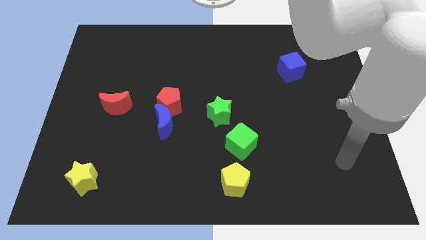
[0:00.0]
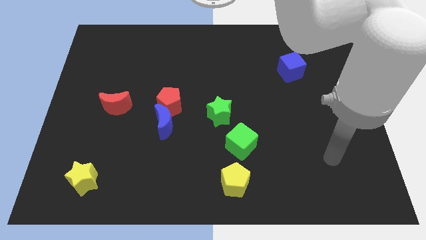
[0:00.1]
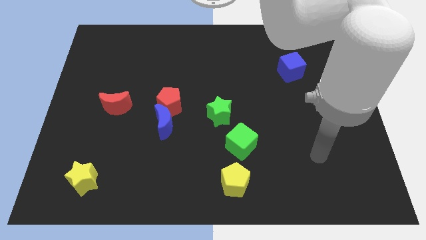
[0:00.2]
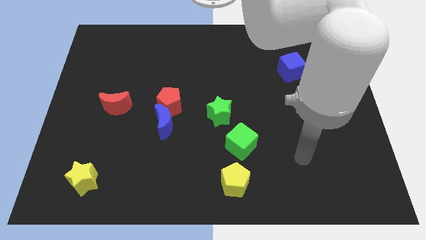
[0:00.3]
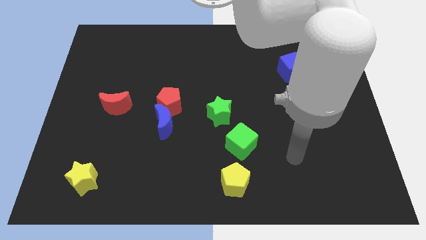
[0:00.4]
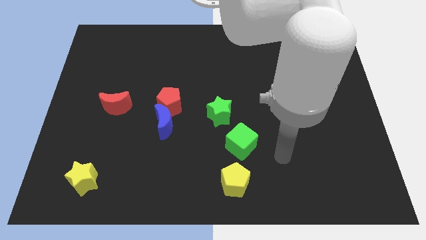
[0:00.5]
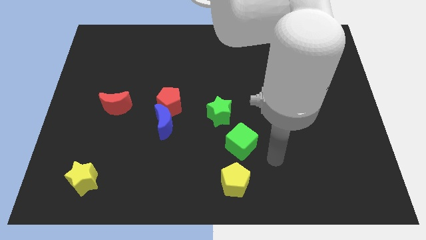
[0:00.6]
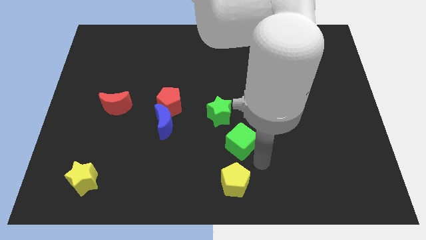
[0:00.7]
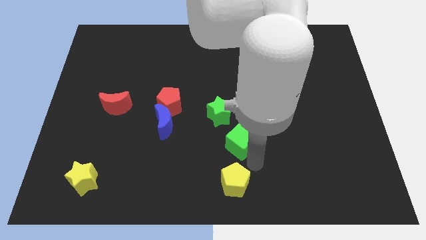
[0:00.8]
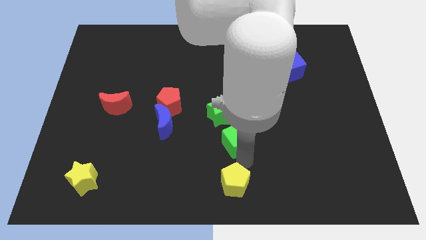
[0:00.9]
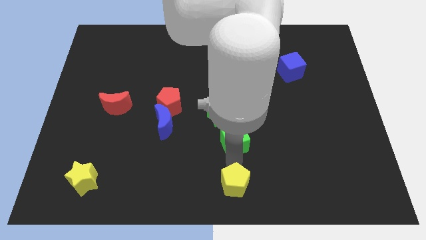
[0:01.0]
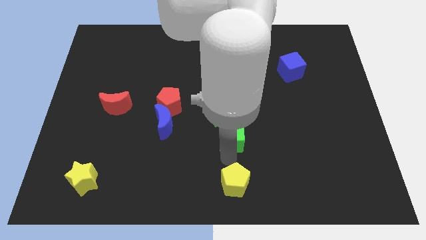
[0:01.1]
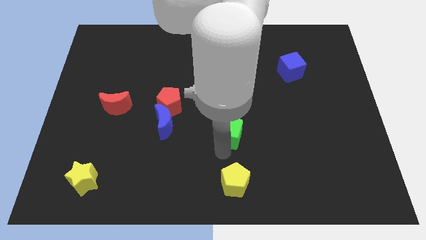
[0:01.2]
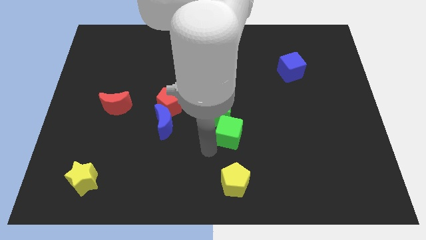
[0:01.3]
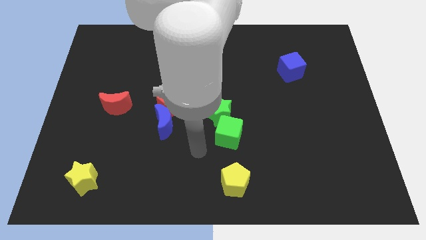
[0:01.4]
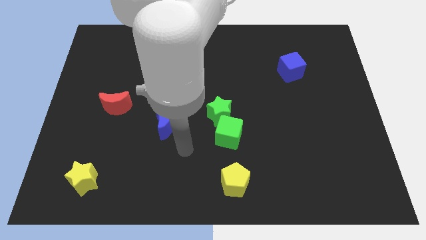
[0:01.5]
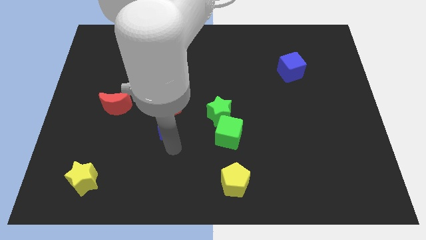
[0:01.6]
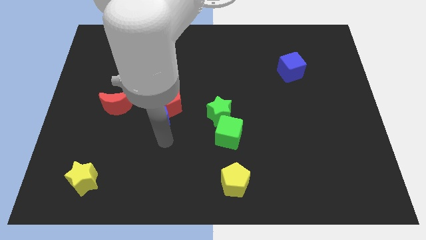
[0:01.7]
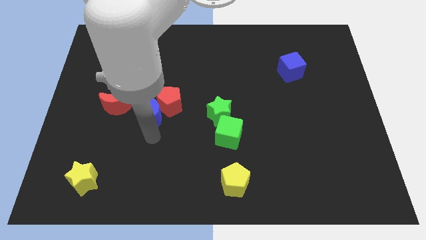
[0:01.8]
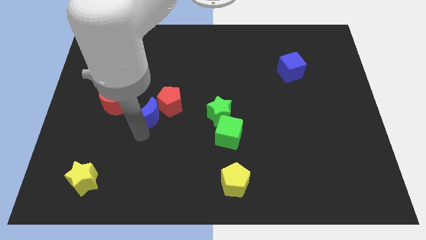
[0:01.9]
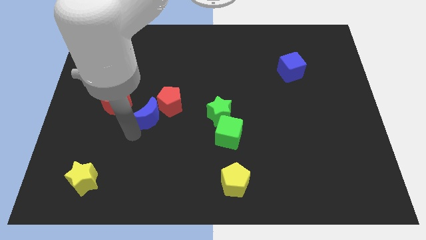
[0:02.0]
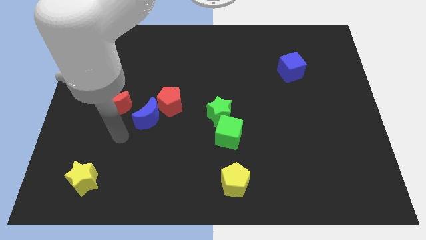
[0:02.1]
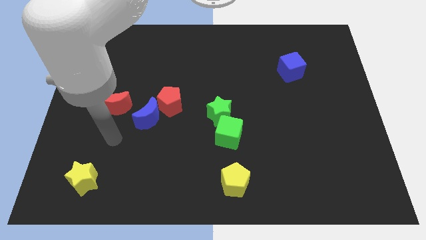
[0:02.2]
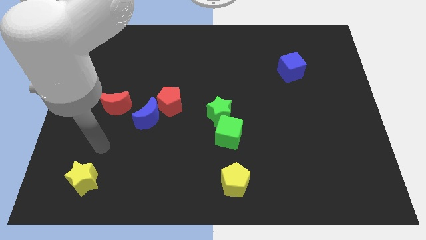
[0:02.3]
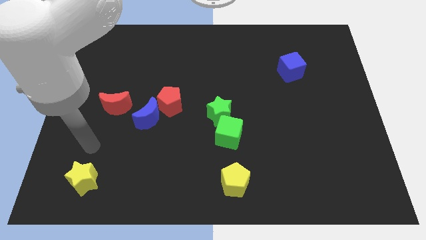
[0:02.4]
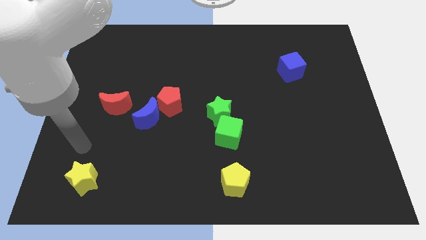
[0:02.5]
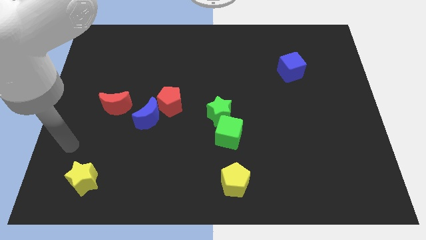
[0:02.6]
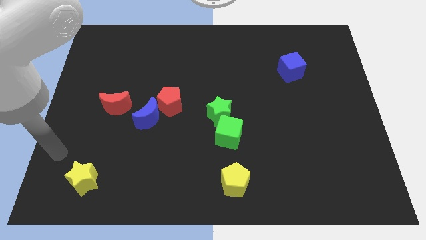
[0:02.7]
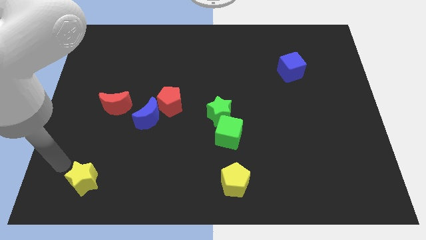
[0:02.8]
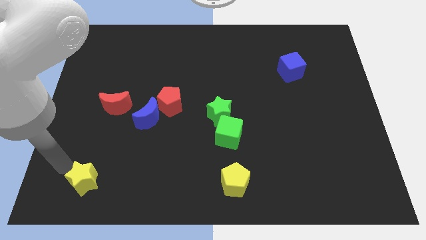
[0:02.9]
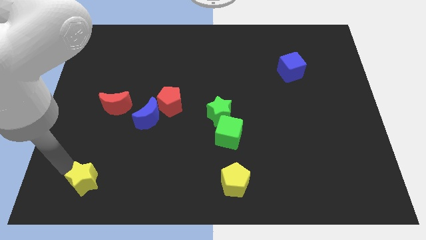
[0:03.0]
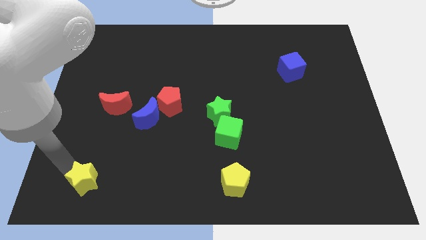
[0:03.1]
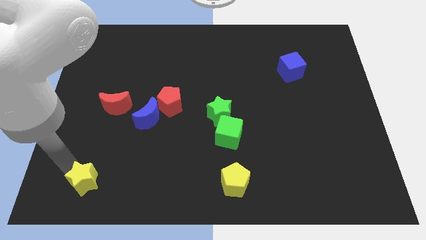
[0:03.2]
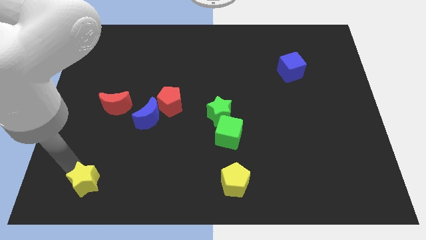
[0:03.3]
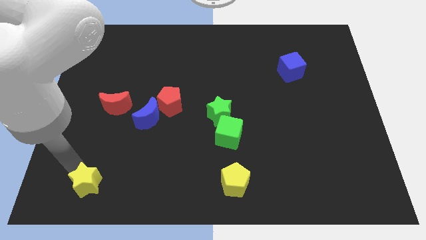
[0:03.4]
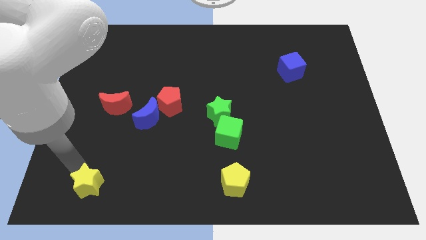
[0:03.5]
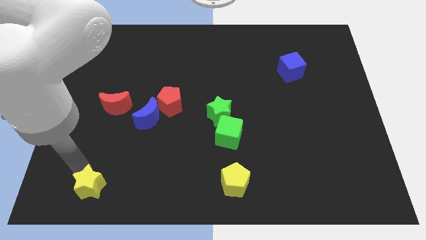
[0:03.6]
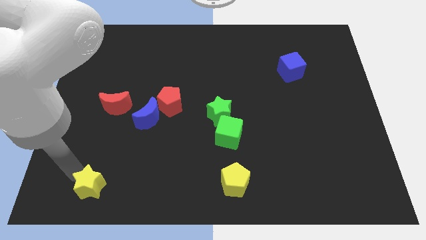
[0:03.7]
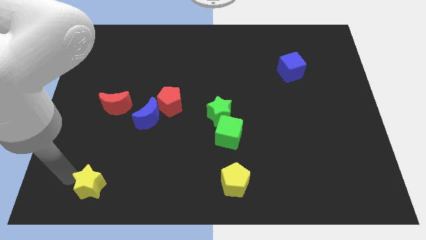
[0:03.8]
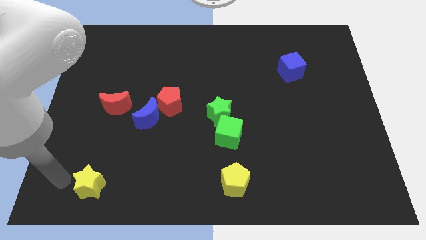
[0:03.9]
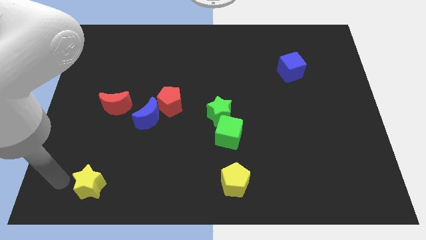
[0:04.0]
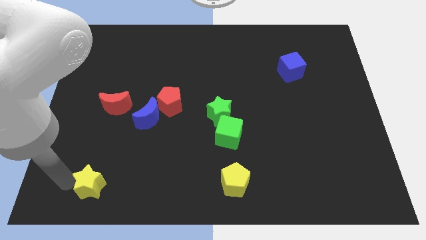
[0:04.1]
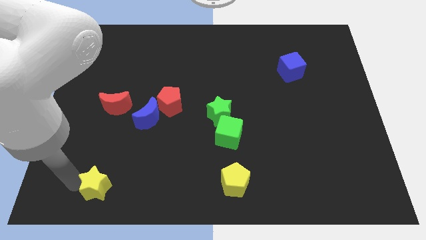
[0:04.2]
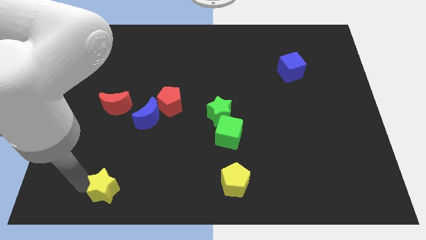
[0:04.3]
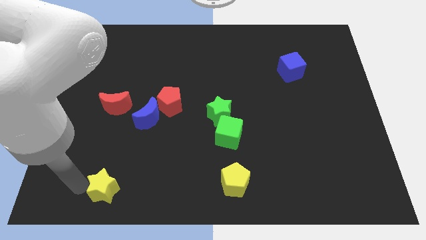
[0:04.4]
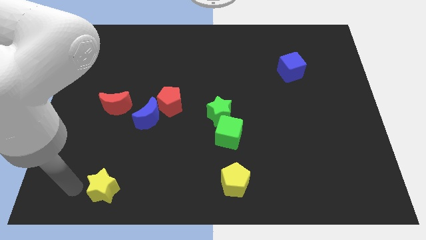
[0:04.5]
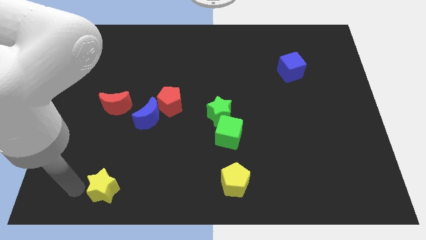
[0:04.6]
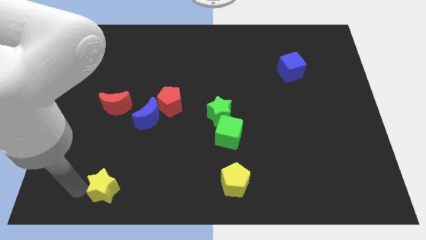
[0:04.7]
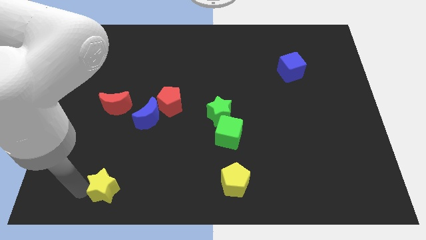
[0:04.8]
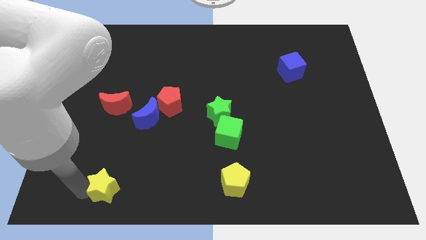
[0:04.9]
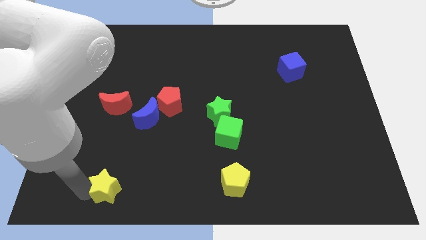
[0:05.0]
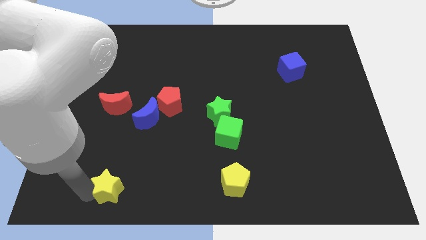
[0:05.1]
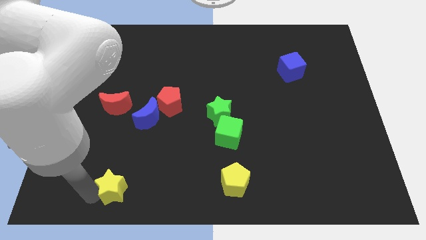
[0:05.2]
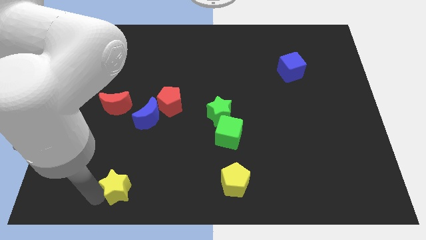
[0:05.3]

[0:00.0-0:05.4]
push the yellow star to the right a bit

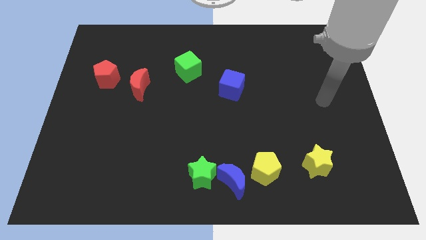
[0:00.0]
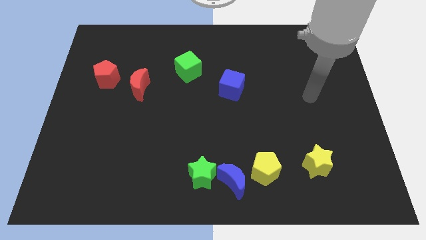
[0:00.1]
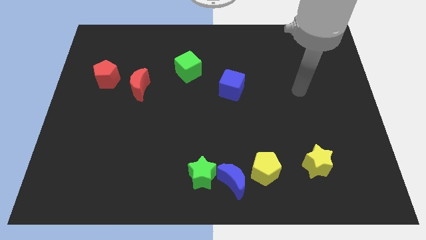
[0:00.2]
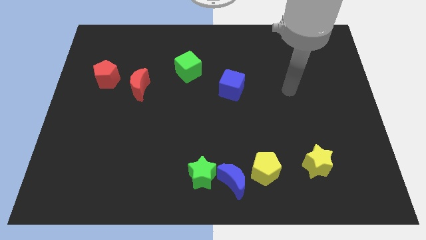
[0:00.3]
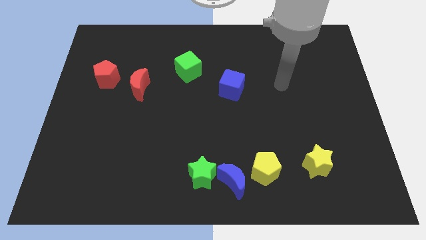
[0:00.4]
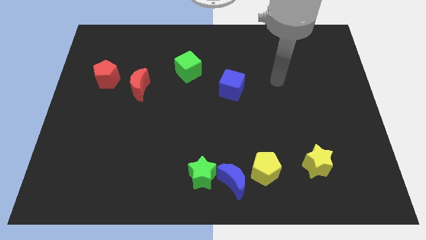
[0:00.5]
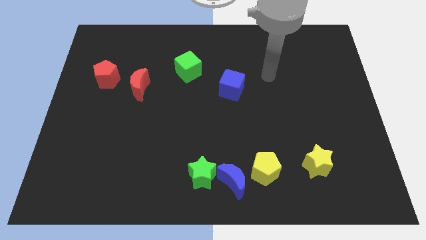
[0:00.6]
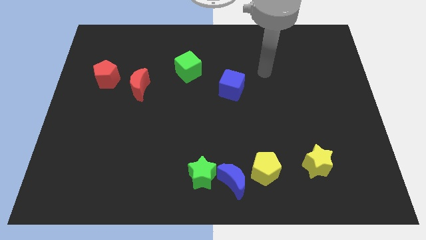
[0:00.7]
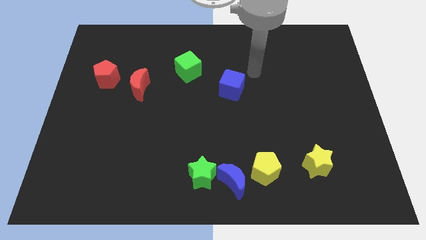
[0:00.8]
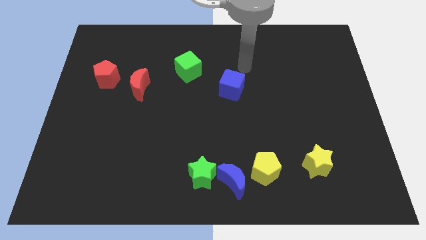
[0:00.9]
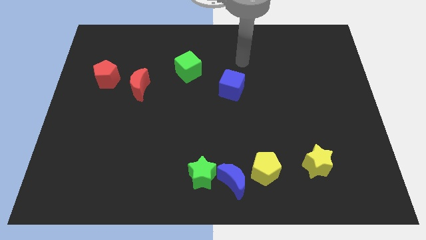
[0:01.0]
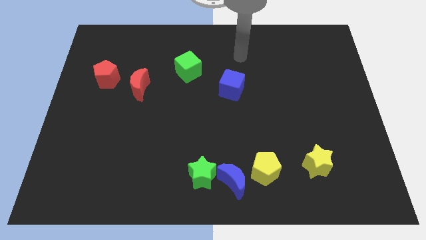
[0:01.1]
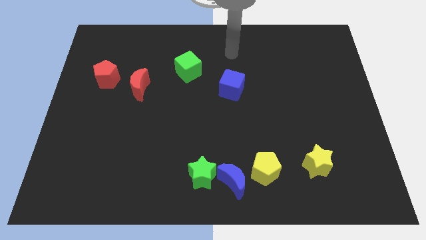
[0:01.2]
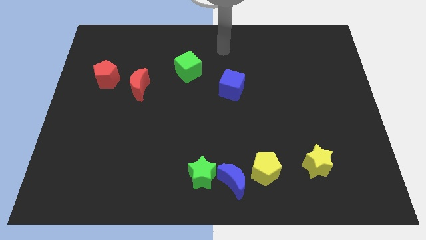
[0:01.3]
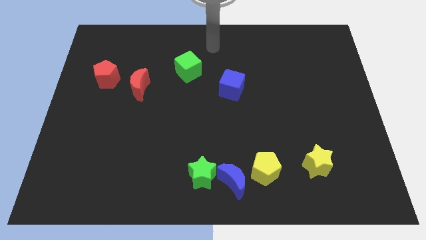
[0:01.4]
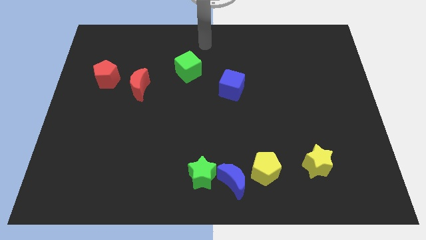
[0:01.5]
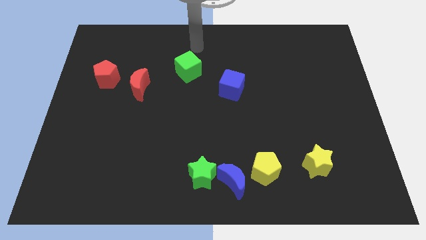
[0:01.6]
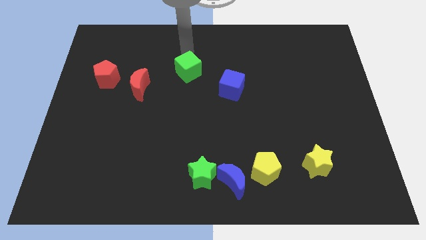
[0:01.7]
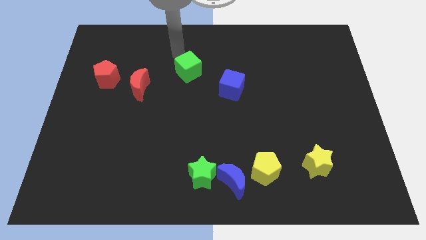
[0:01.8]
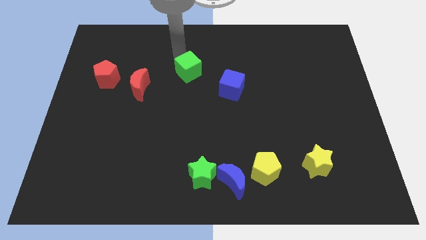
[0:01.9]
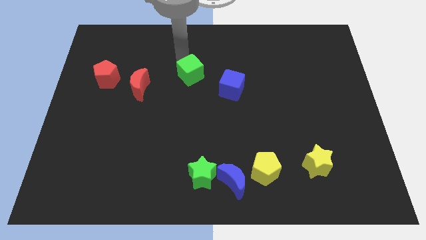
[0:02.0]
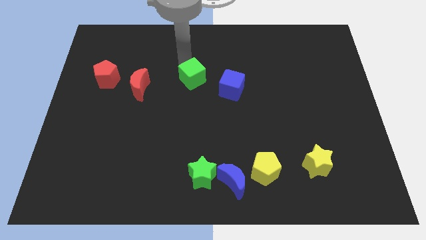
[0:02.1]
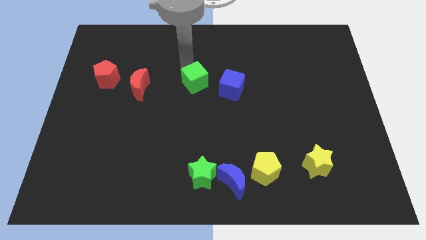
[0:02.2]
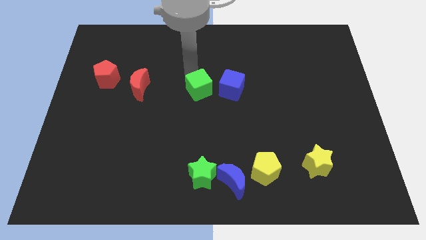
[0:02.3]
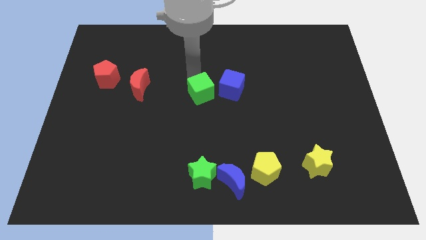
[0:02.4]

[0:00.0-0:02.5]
slightly push the green cube downwards and then to the right

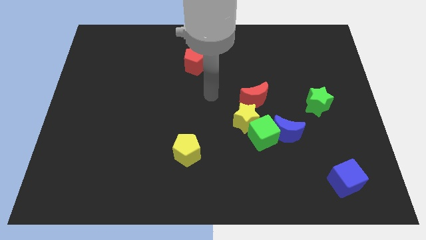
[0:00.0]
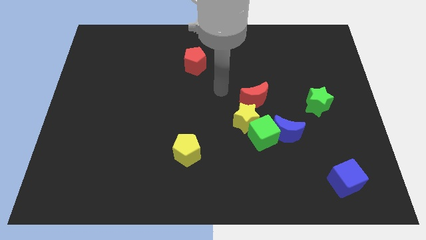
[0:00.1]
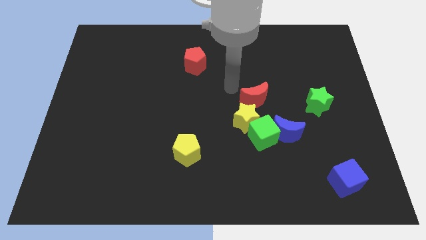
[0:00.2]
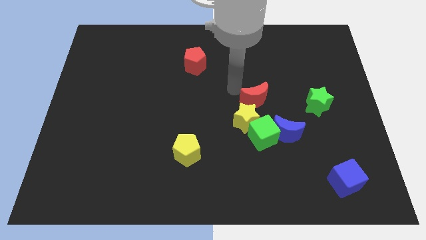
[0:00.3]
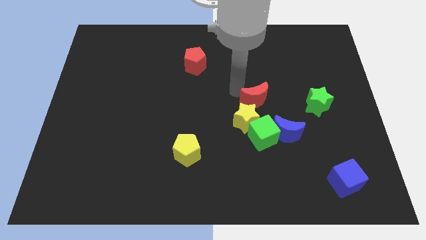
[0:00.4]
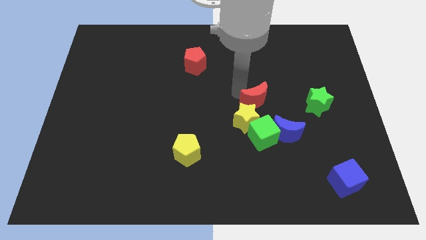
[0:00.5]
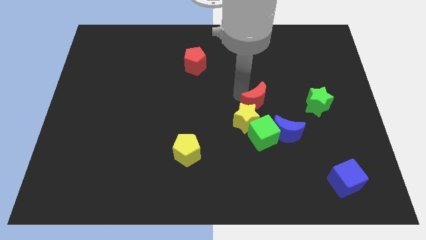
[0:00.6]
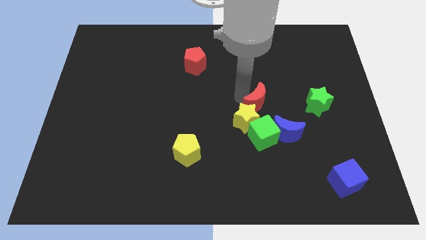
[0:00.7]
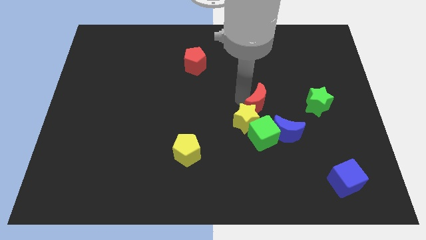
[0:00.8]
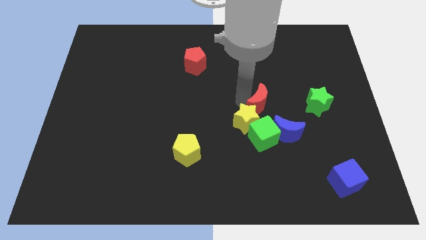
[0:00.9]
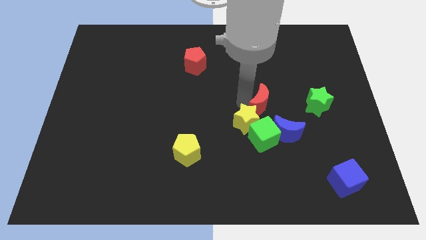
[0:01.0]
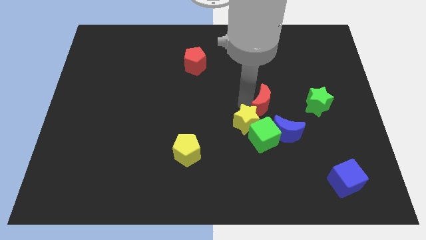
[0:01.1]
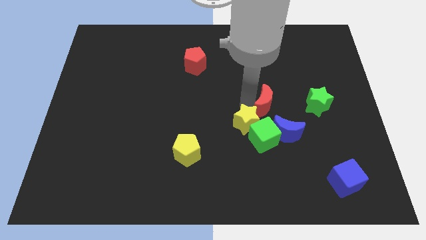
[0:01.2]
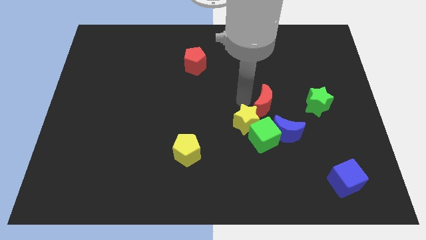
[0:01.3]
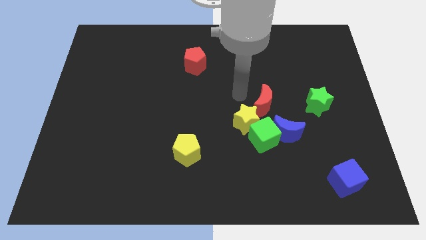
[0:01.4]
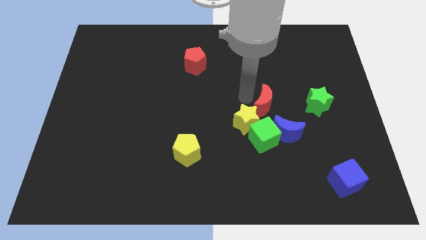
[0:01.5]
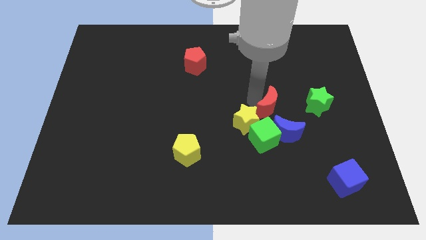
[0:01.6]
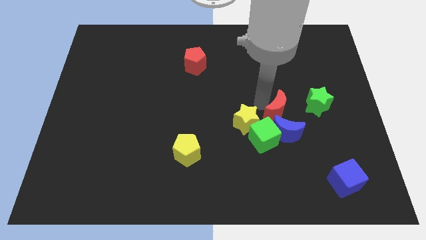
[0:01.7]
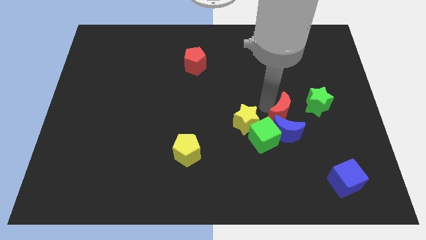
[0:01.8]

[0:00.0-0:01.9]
push the red moon downwards and then to the right somewhat
